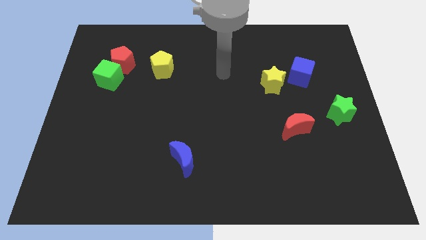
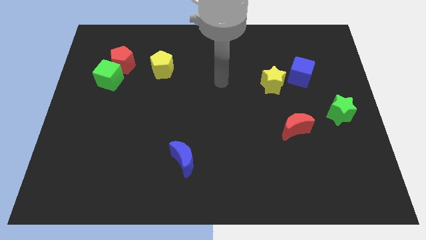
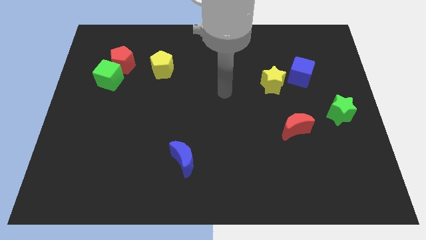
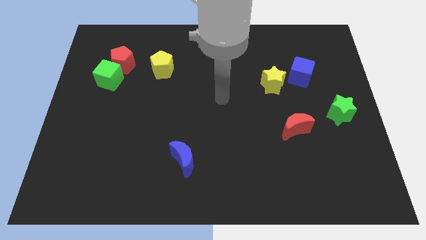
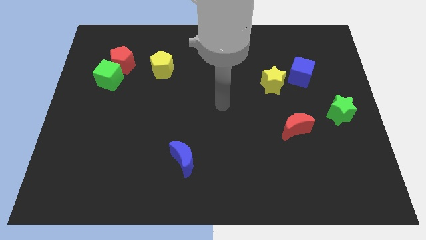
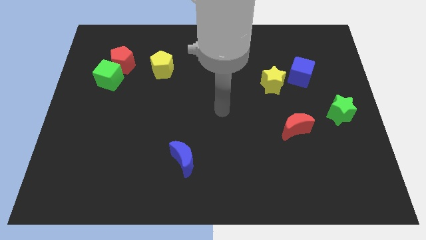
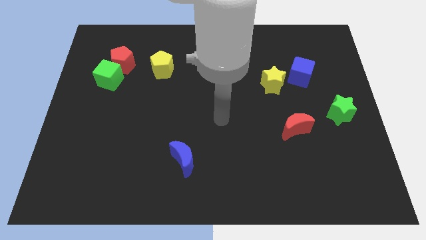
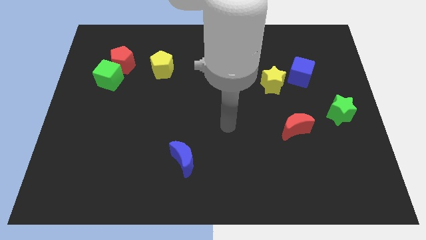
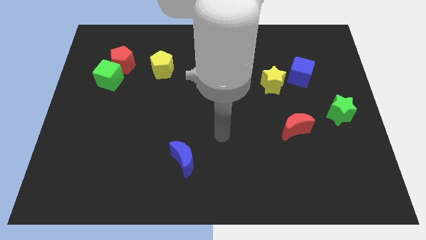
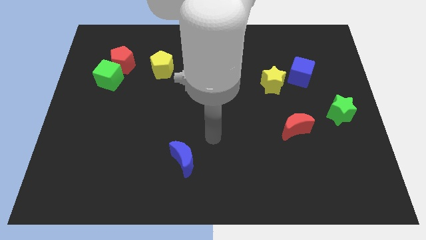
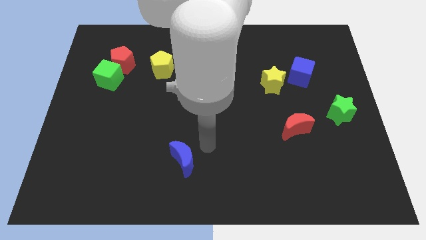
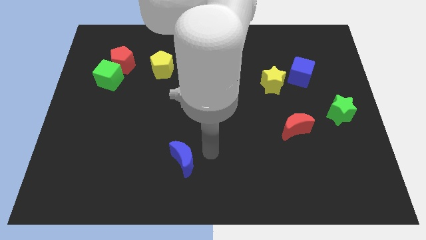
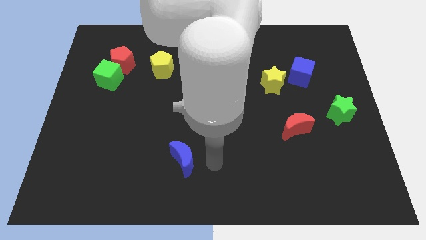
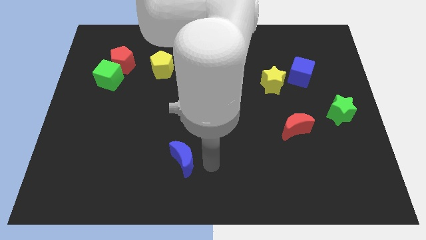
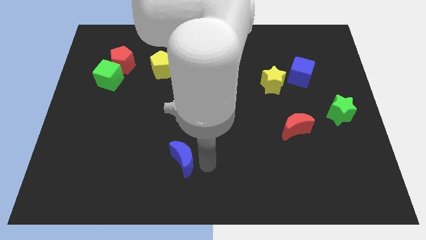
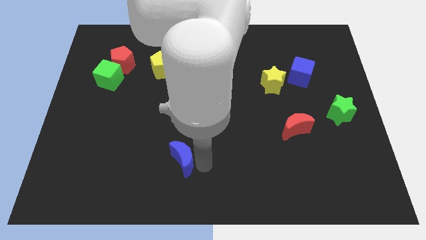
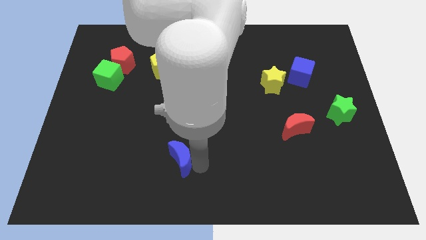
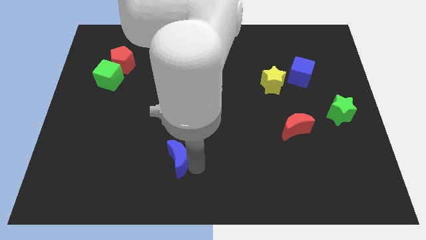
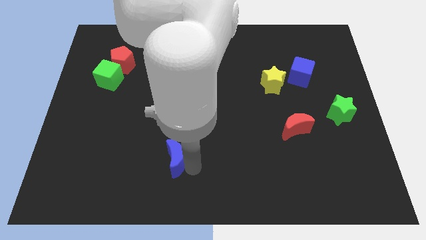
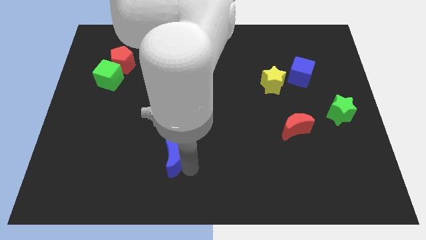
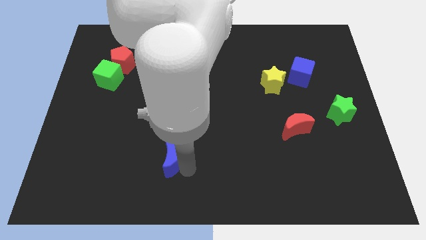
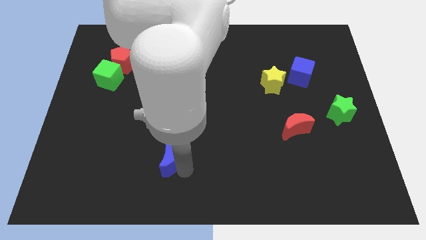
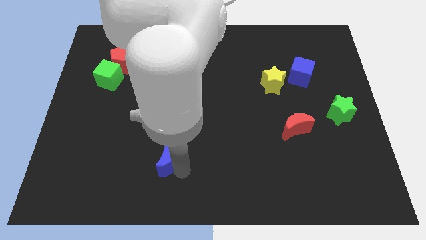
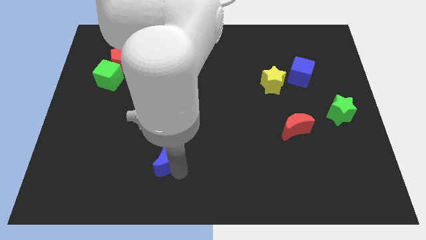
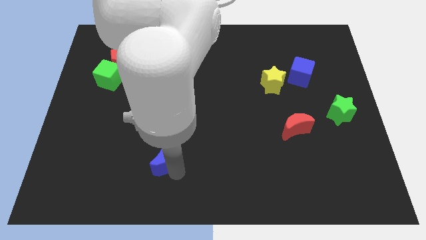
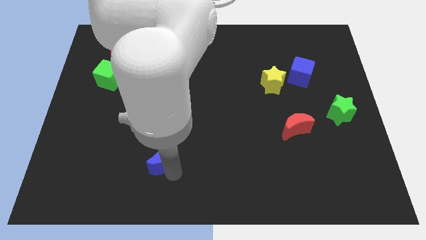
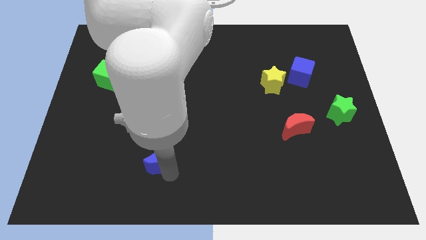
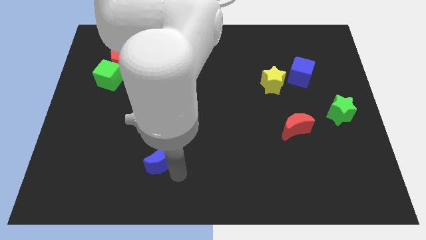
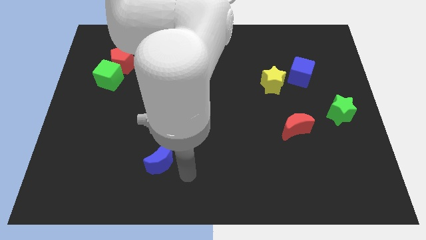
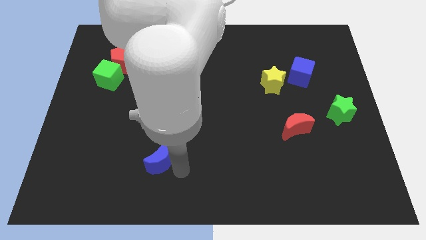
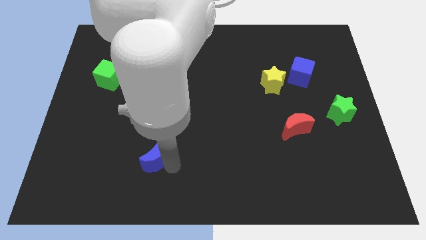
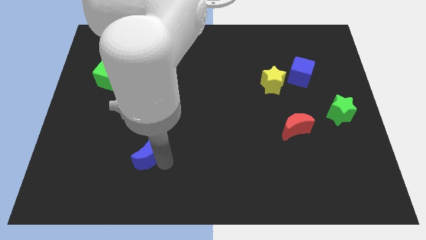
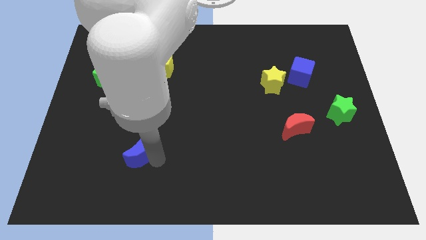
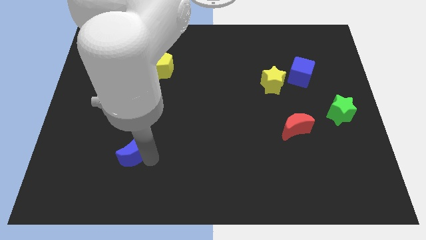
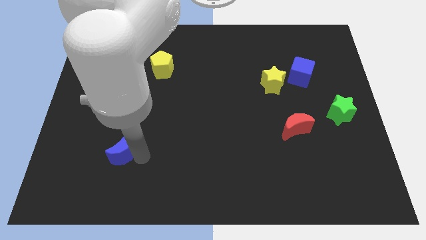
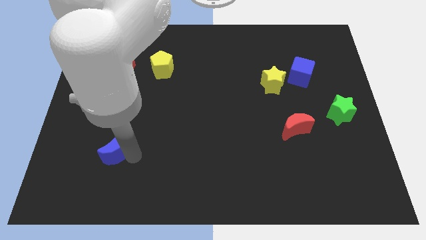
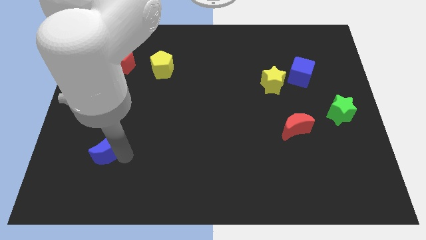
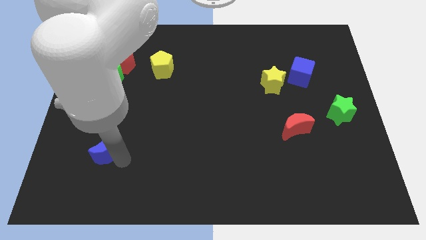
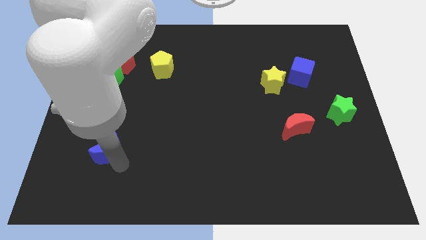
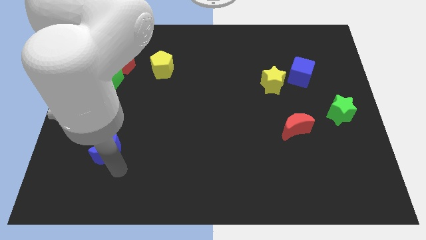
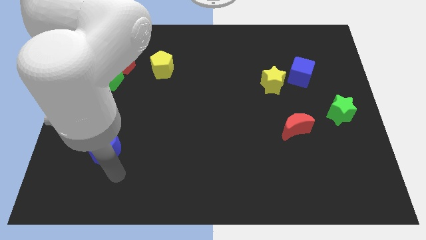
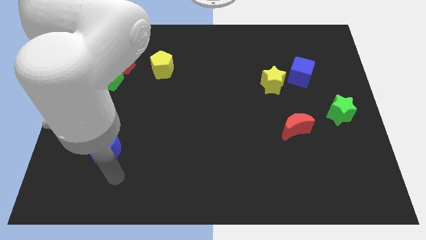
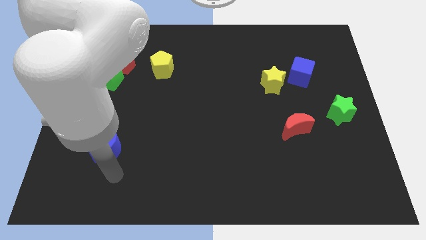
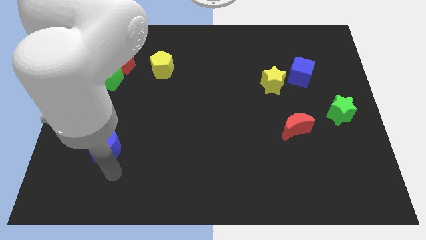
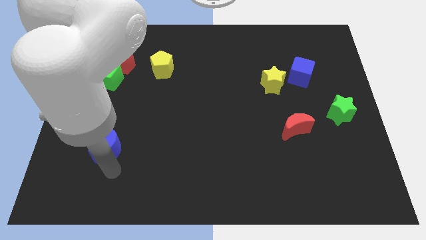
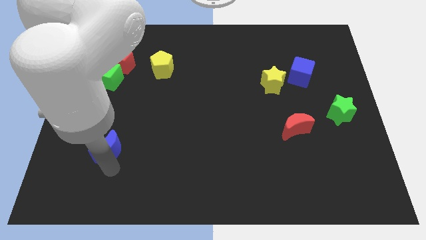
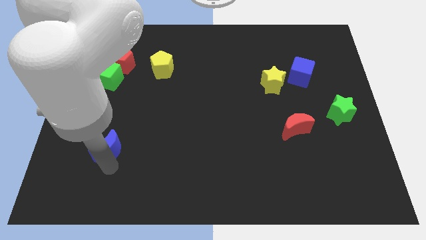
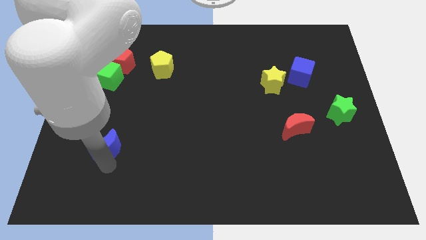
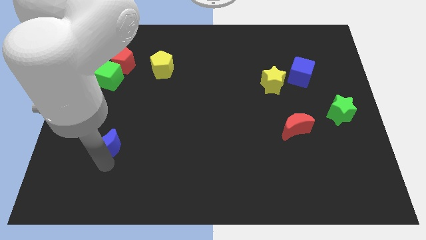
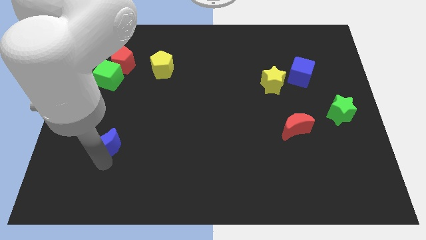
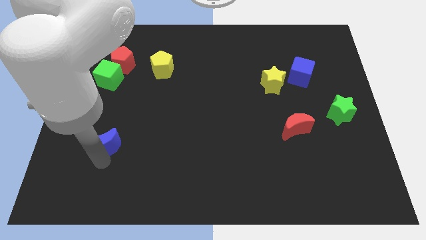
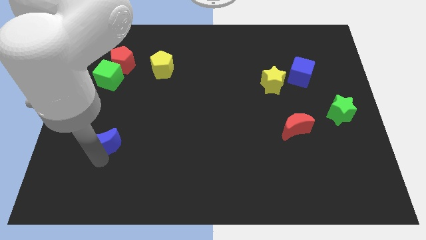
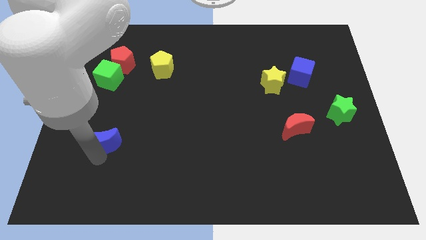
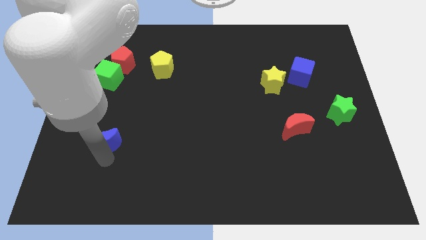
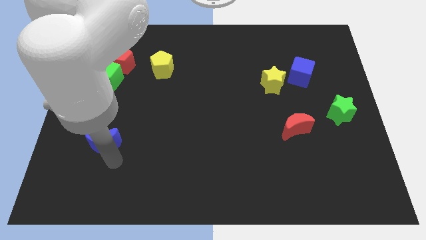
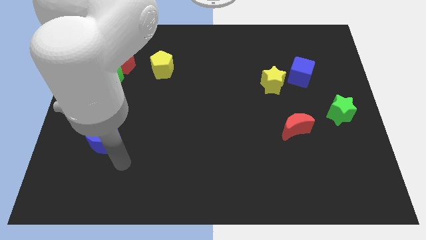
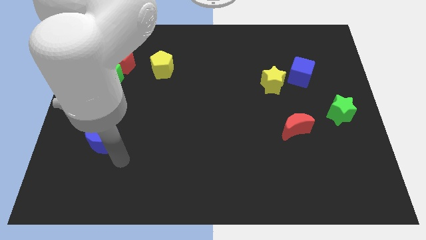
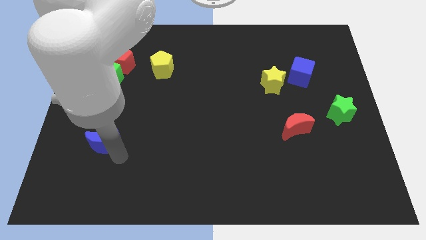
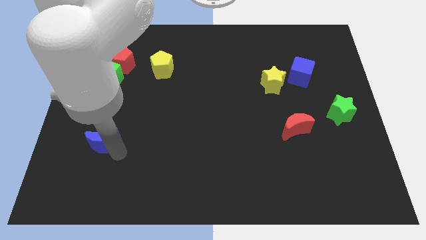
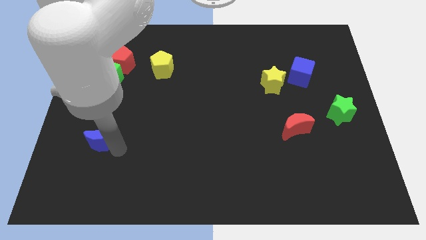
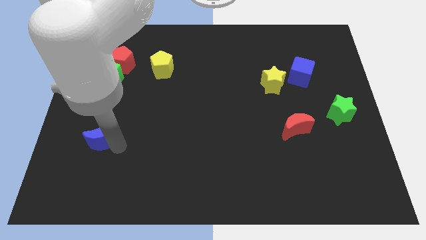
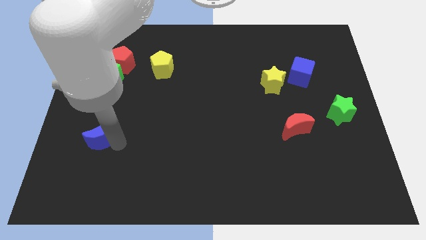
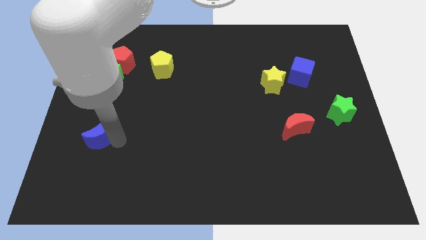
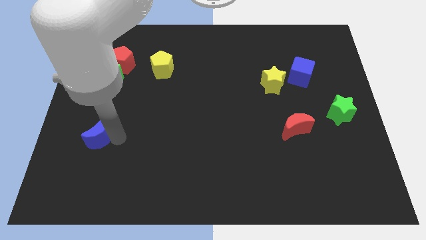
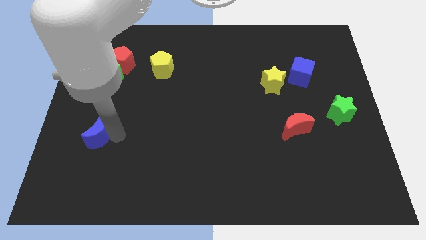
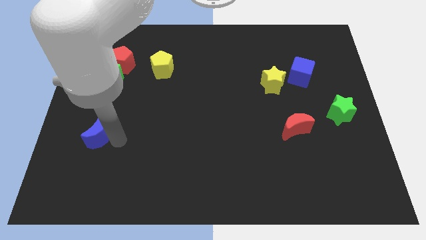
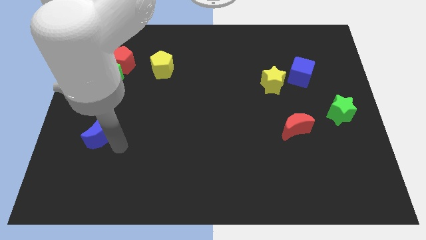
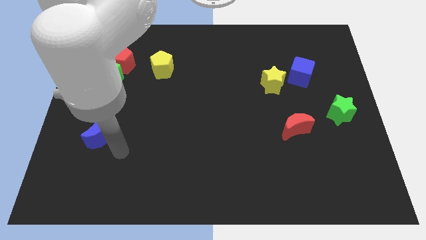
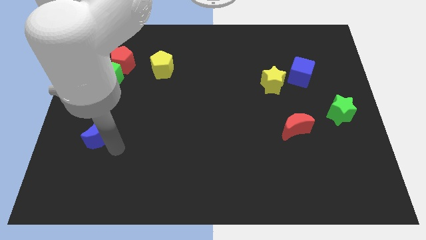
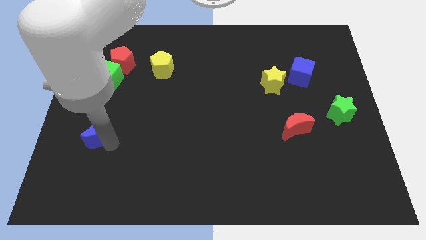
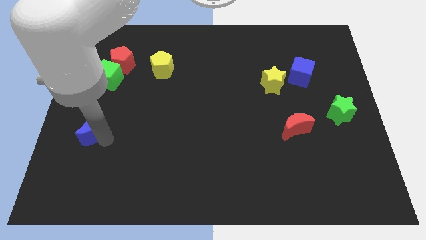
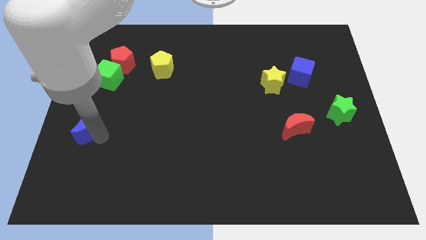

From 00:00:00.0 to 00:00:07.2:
put the blue moon to the left side
